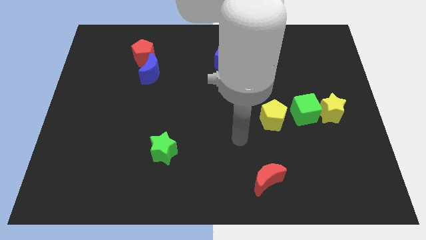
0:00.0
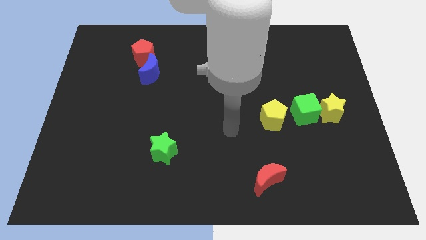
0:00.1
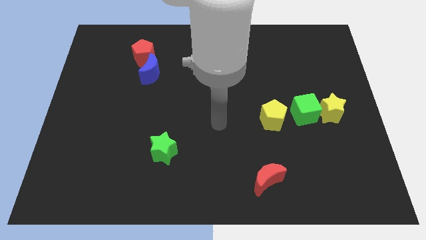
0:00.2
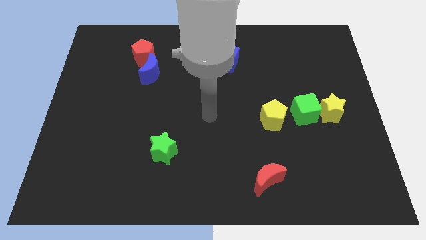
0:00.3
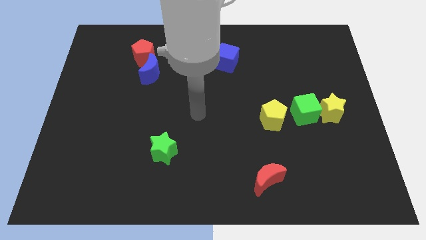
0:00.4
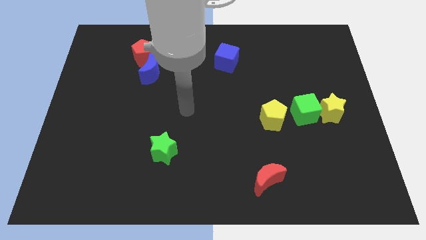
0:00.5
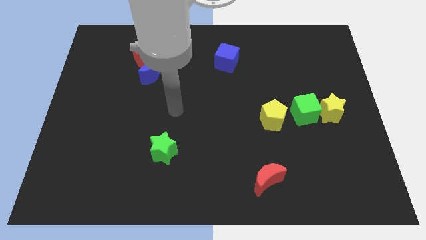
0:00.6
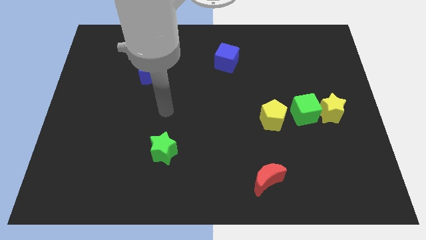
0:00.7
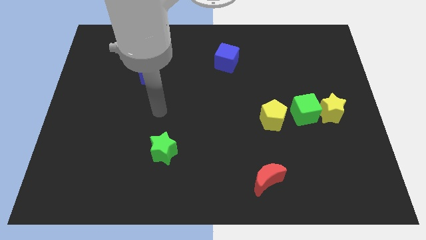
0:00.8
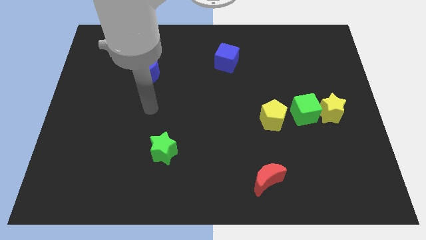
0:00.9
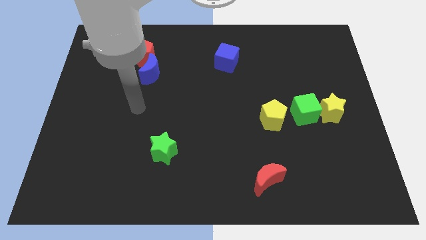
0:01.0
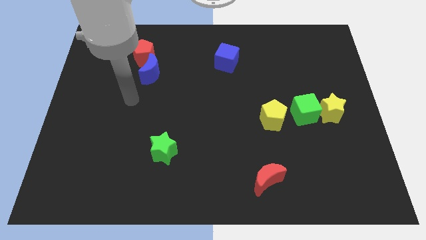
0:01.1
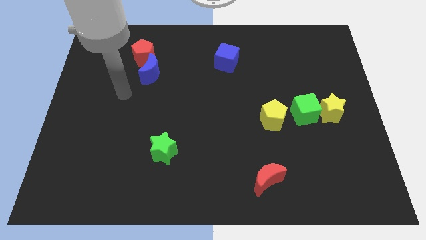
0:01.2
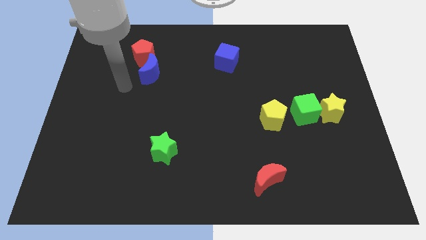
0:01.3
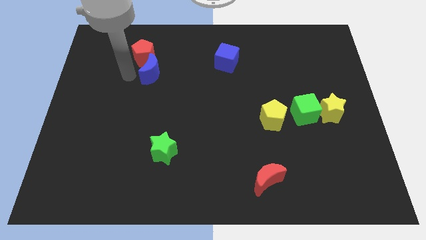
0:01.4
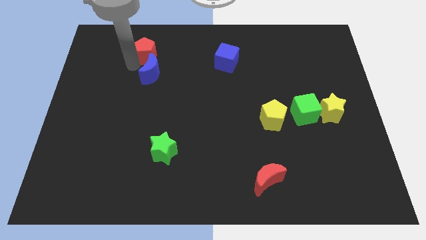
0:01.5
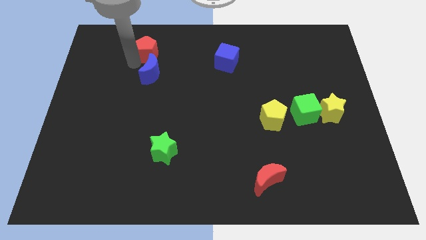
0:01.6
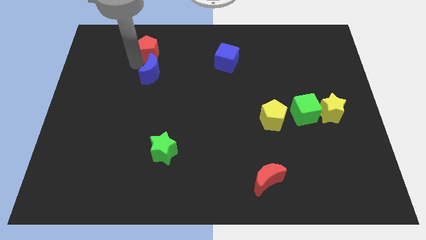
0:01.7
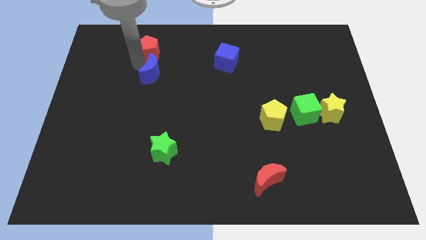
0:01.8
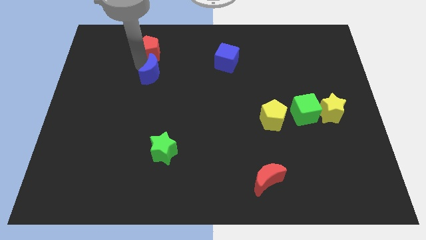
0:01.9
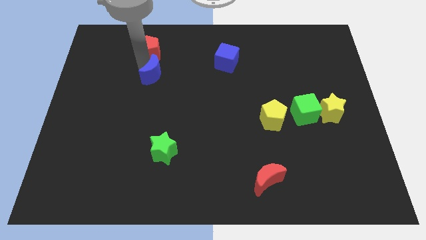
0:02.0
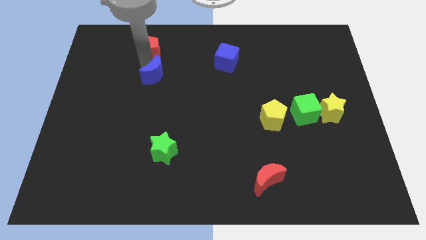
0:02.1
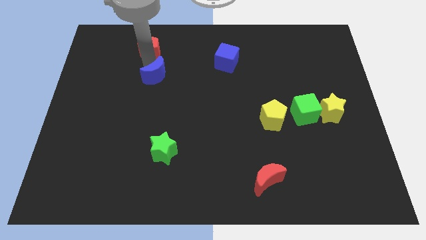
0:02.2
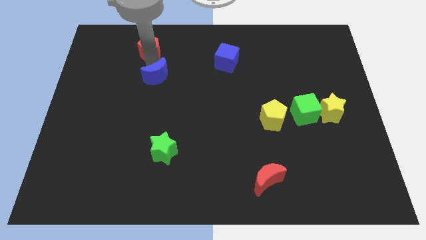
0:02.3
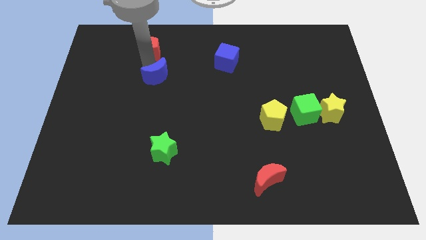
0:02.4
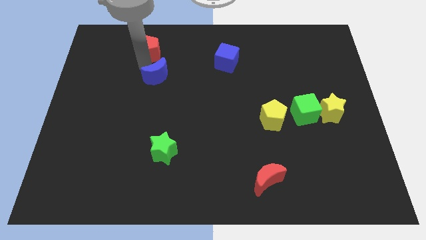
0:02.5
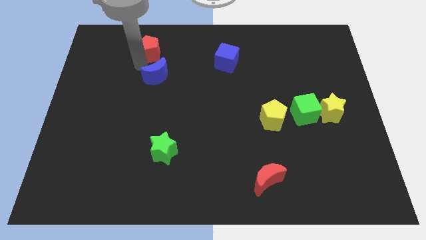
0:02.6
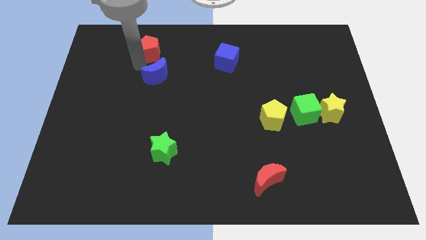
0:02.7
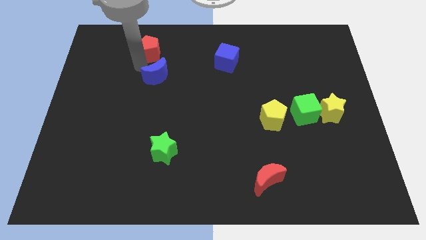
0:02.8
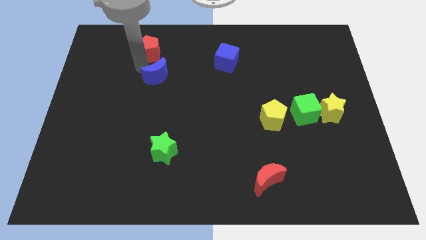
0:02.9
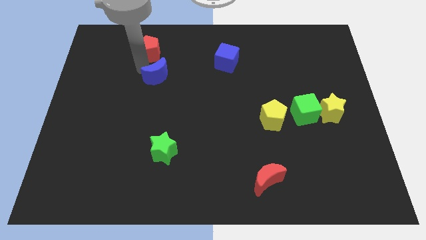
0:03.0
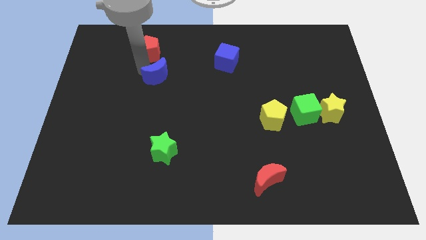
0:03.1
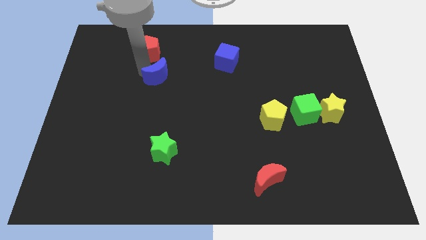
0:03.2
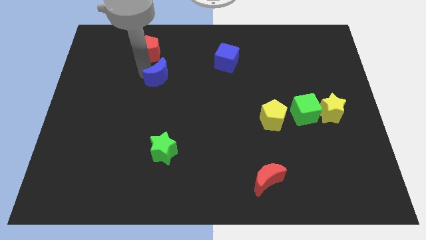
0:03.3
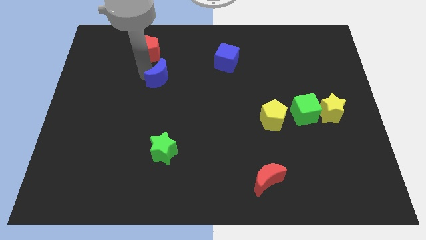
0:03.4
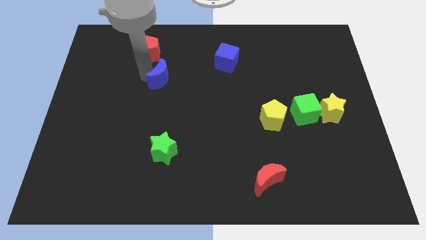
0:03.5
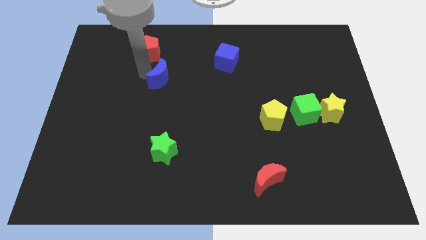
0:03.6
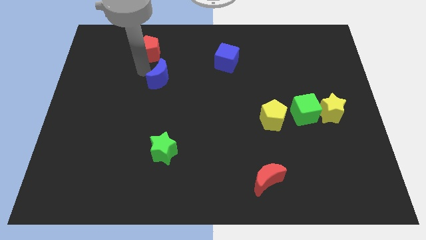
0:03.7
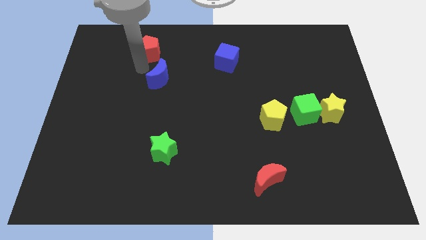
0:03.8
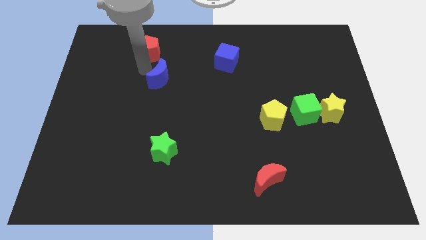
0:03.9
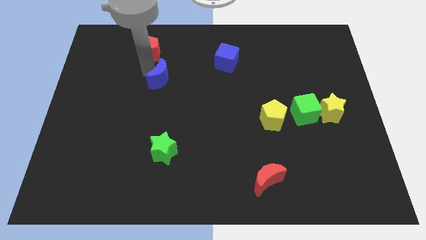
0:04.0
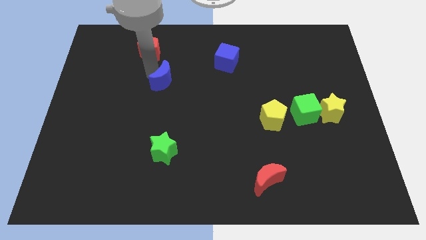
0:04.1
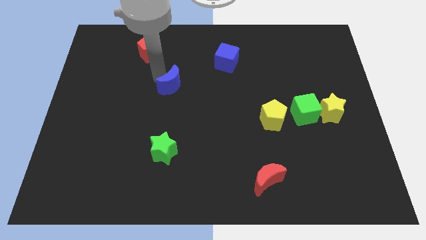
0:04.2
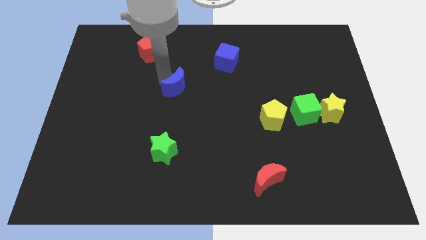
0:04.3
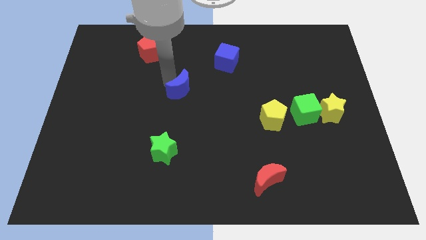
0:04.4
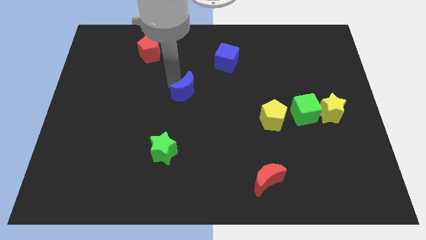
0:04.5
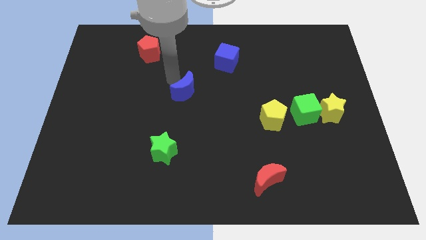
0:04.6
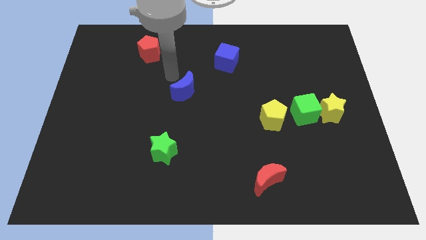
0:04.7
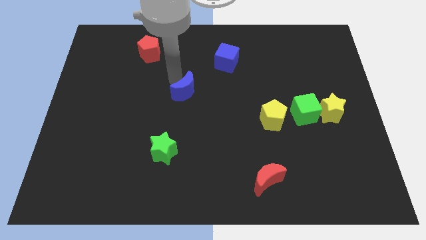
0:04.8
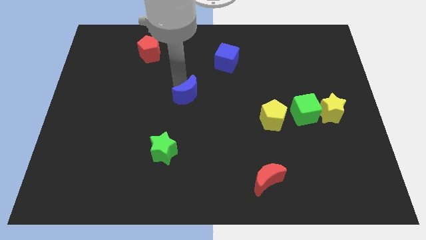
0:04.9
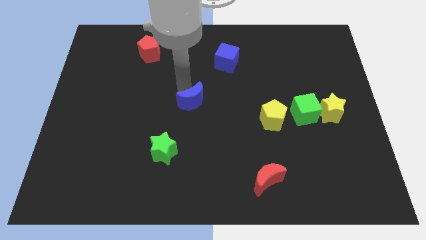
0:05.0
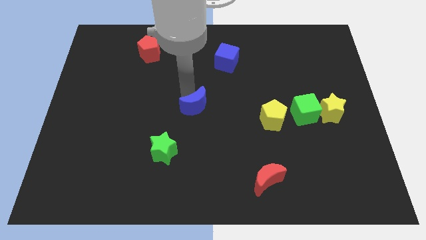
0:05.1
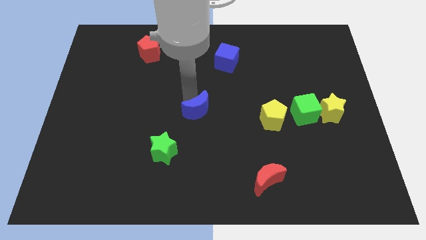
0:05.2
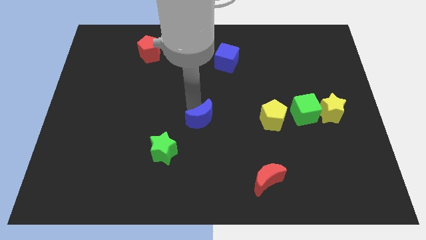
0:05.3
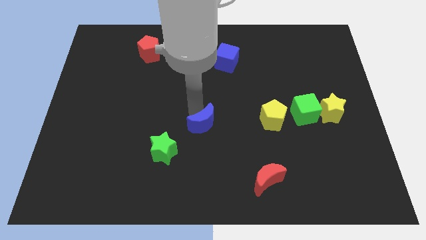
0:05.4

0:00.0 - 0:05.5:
push the blue moon down and right diagonally

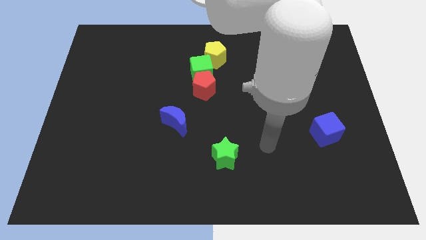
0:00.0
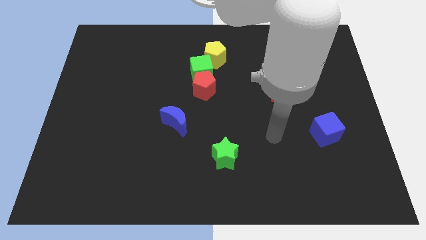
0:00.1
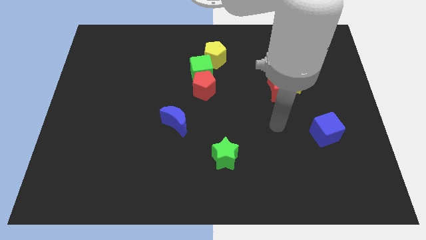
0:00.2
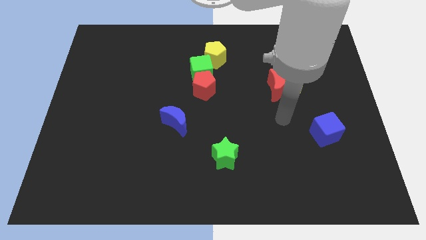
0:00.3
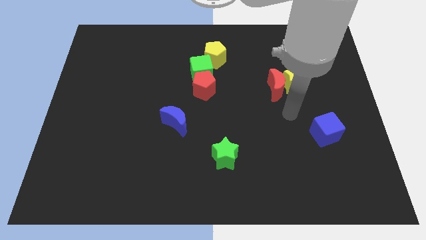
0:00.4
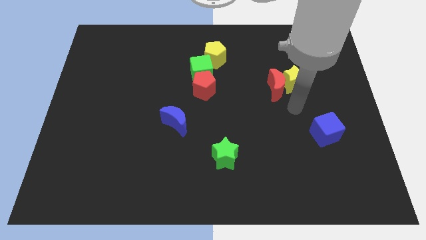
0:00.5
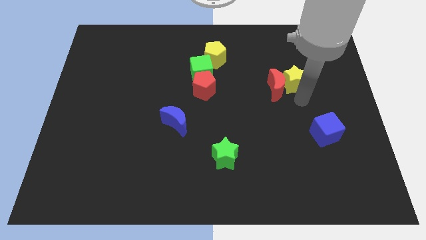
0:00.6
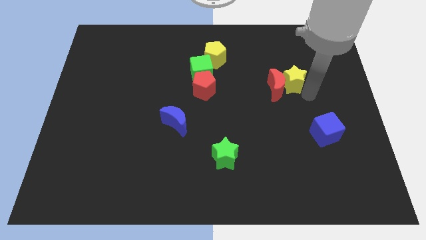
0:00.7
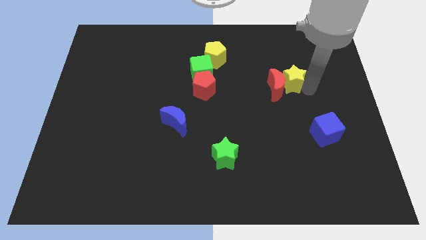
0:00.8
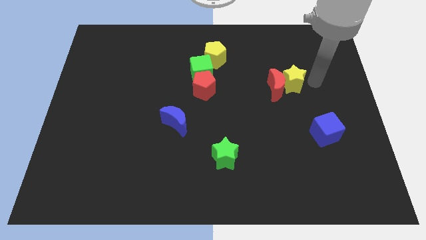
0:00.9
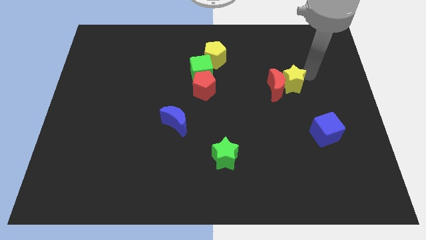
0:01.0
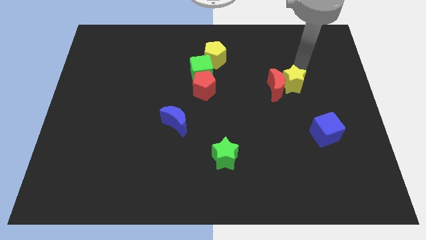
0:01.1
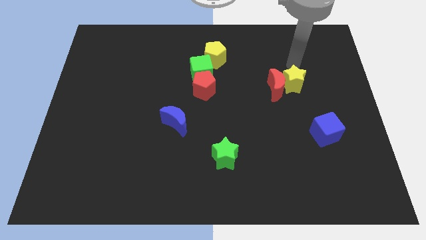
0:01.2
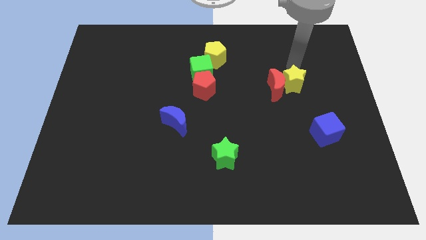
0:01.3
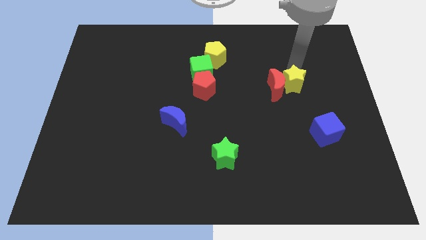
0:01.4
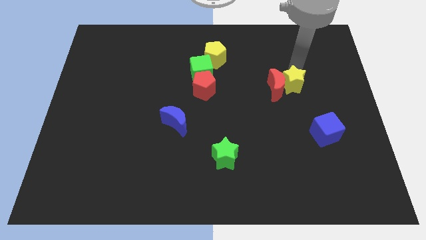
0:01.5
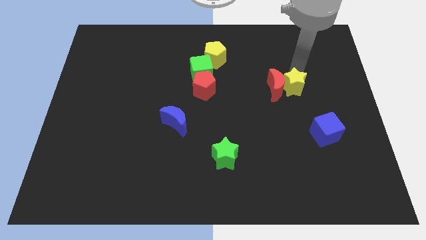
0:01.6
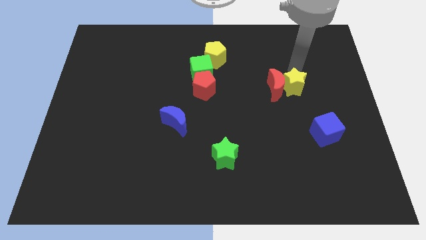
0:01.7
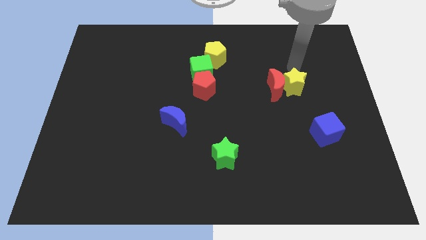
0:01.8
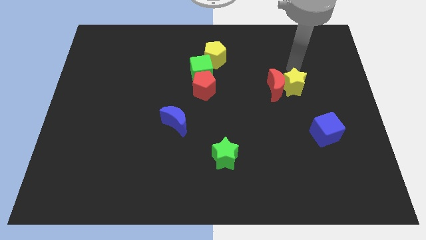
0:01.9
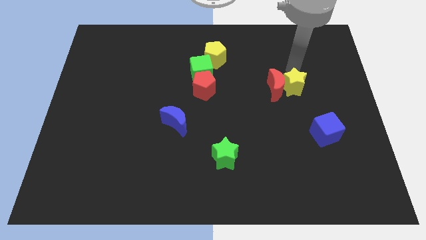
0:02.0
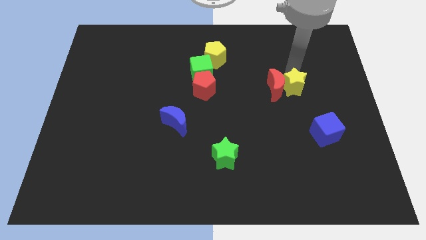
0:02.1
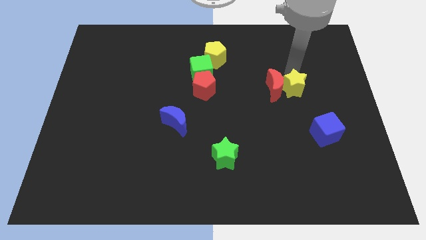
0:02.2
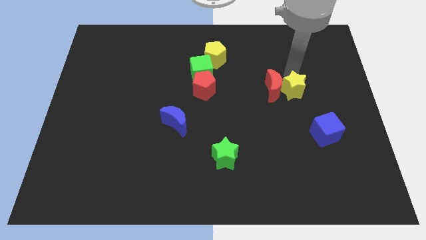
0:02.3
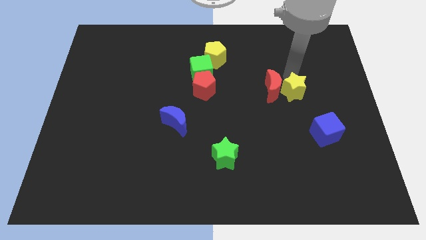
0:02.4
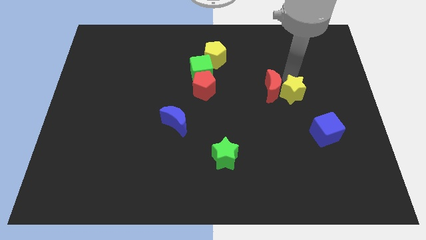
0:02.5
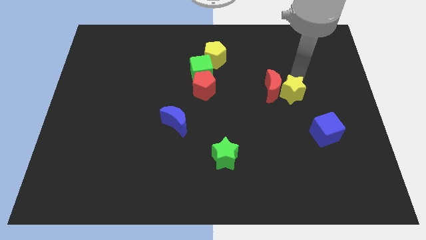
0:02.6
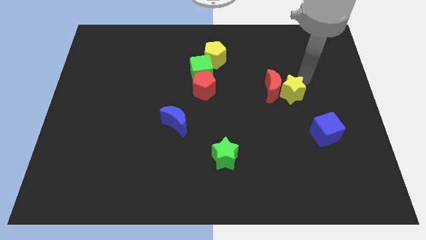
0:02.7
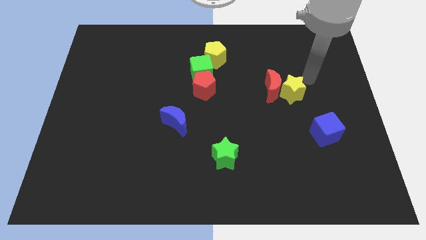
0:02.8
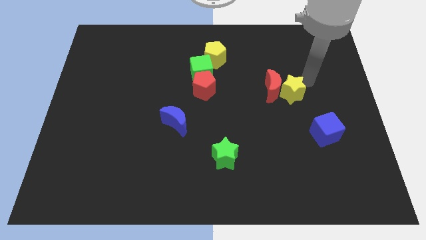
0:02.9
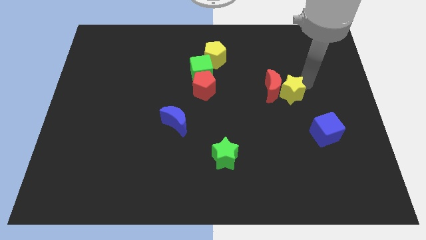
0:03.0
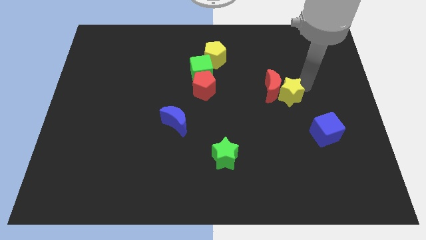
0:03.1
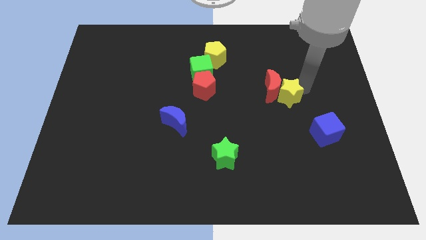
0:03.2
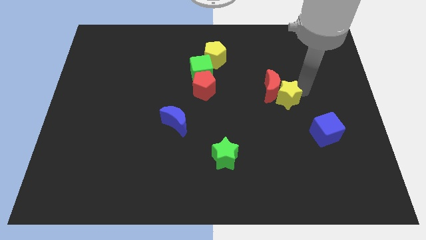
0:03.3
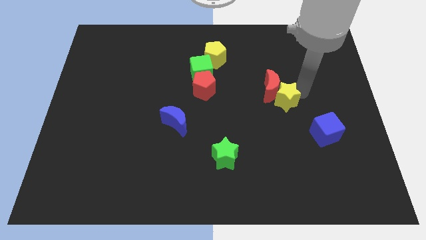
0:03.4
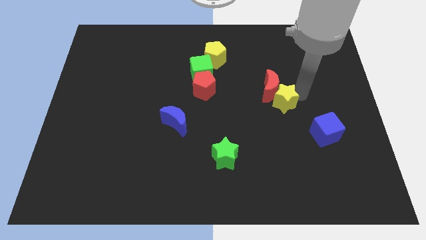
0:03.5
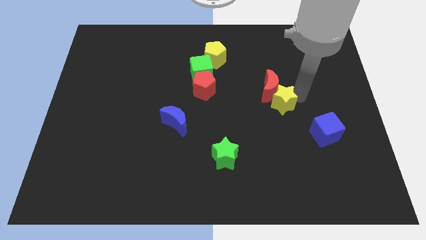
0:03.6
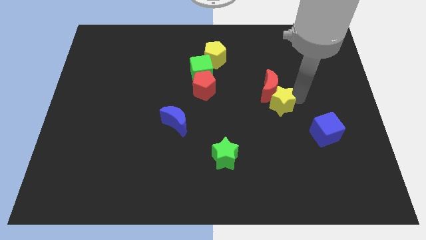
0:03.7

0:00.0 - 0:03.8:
slide the yellow star a little bit downwards and to the left diagonally
